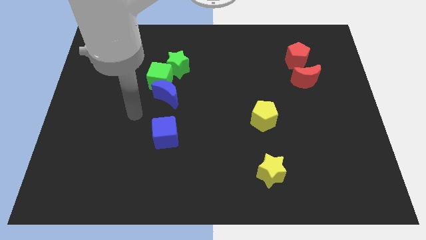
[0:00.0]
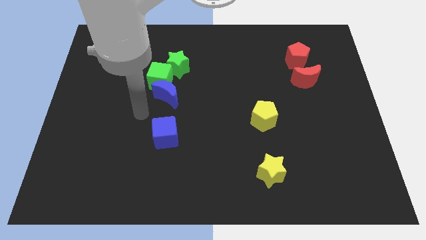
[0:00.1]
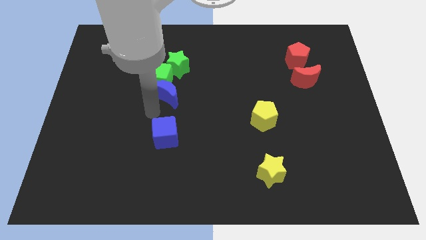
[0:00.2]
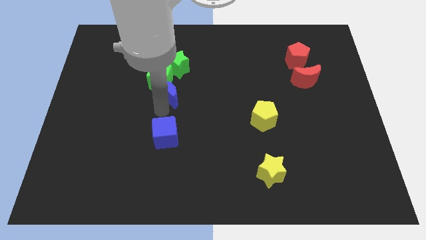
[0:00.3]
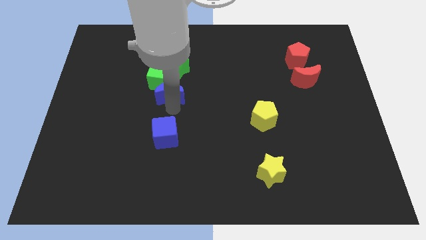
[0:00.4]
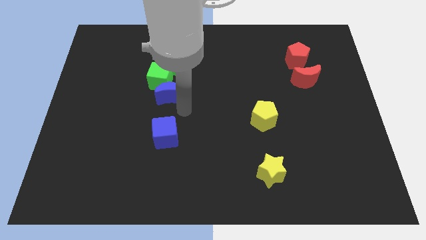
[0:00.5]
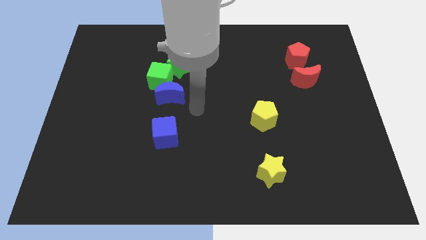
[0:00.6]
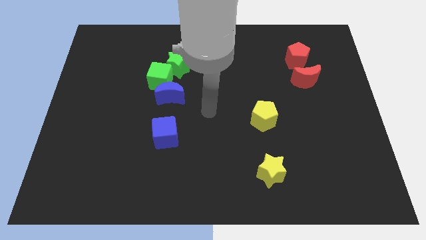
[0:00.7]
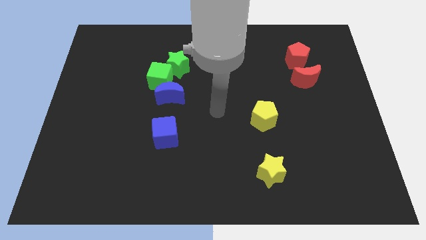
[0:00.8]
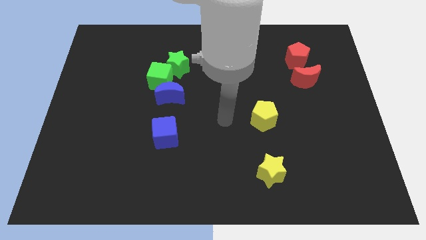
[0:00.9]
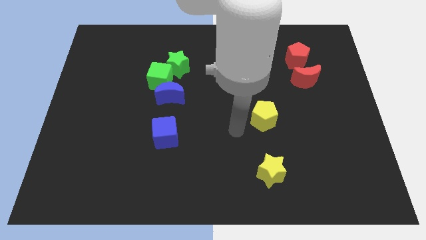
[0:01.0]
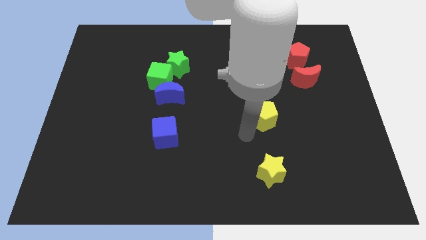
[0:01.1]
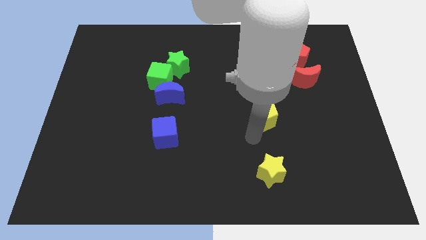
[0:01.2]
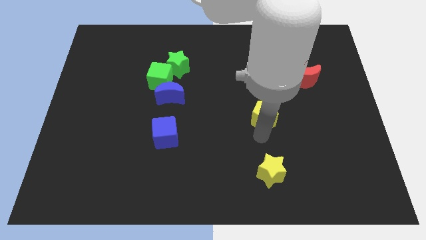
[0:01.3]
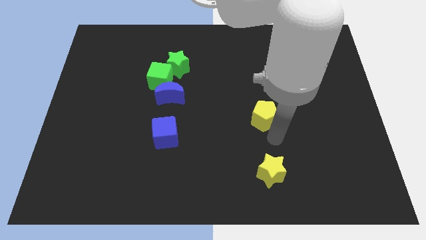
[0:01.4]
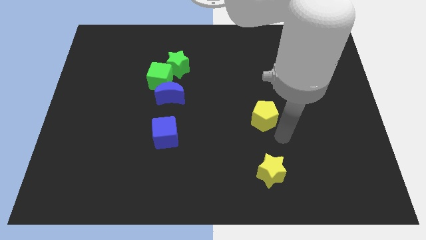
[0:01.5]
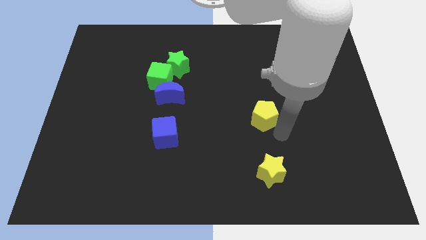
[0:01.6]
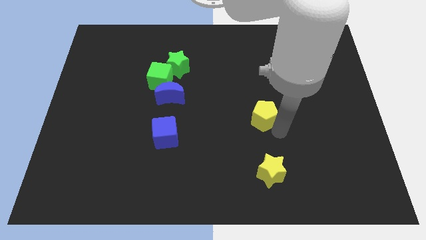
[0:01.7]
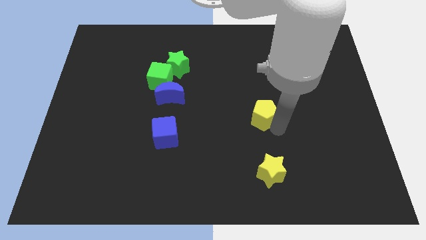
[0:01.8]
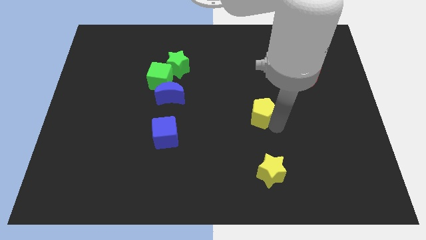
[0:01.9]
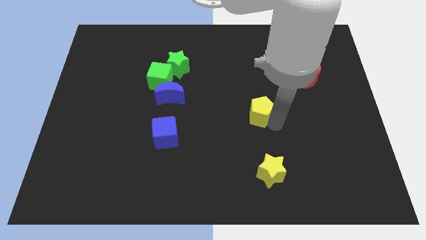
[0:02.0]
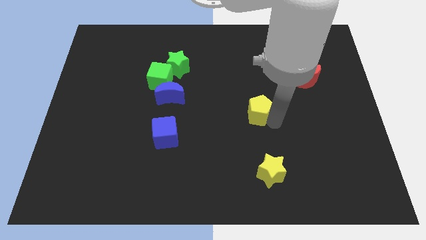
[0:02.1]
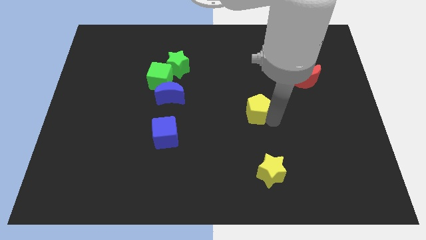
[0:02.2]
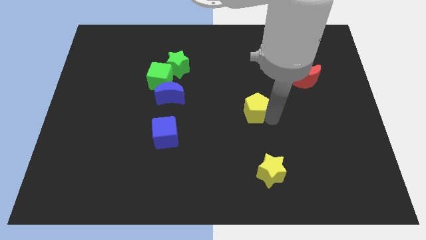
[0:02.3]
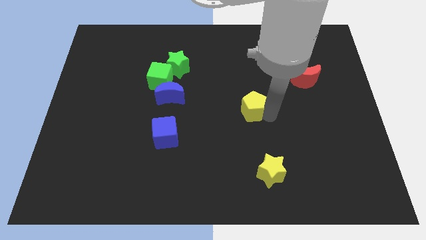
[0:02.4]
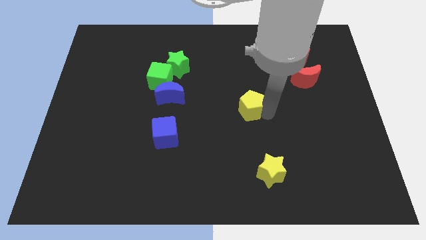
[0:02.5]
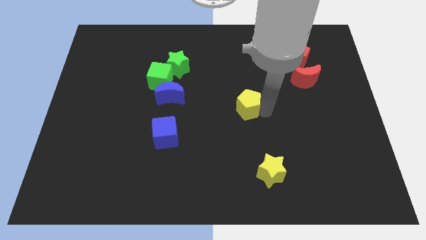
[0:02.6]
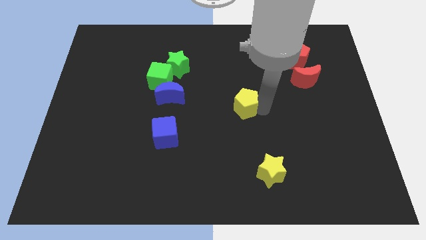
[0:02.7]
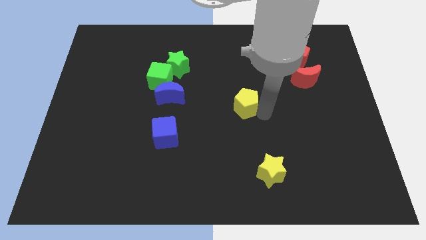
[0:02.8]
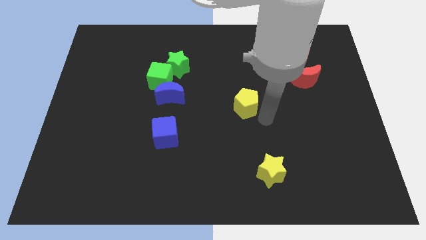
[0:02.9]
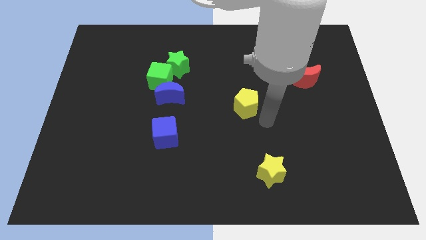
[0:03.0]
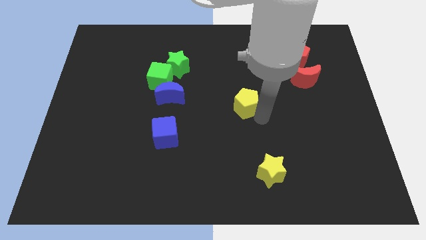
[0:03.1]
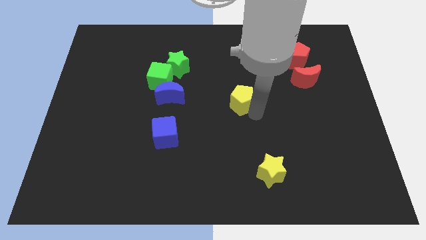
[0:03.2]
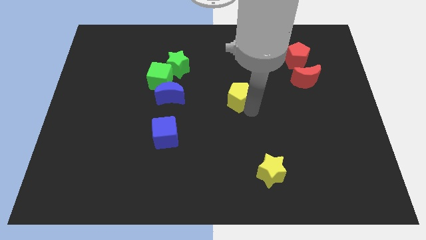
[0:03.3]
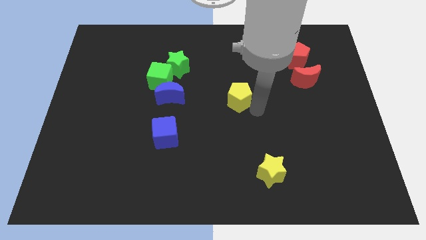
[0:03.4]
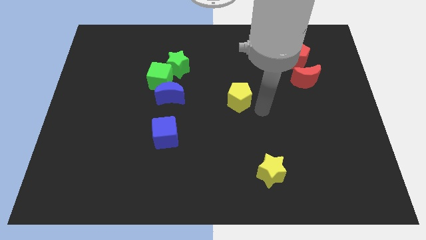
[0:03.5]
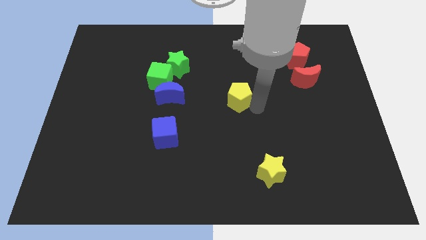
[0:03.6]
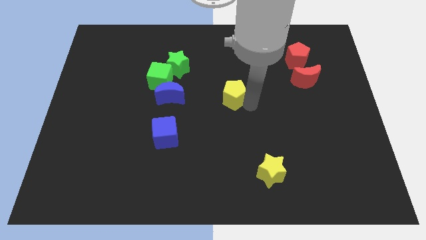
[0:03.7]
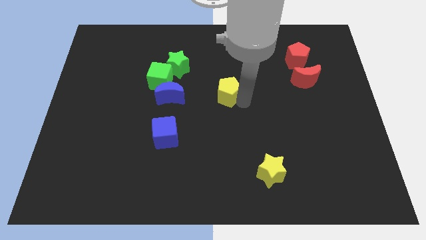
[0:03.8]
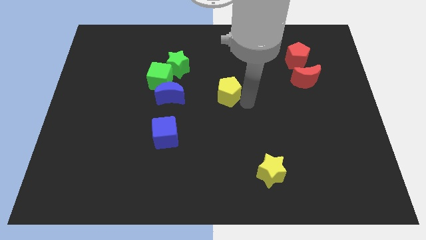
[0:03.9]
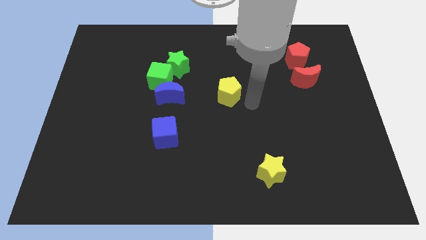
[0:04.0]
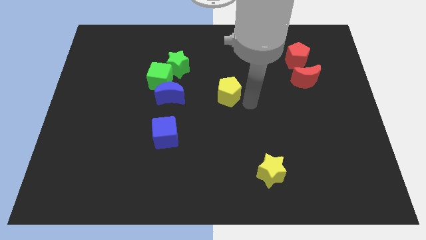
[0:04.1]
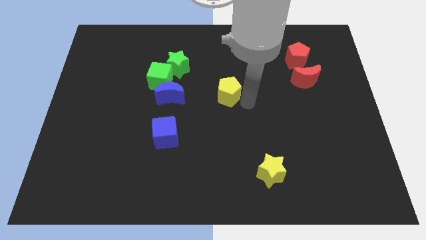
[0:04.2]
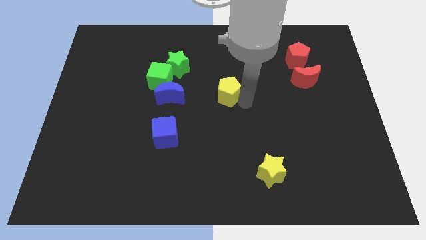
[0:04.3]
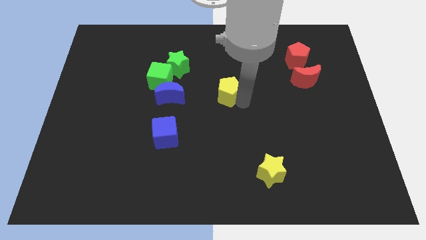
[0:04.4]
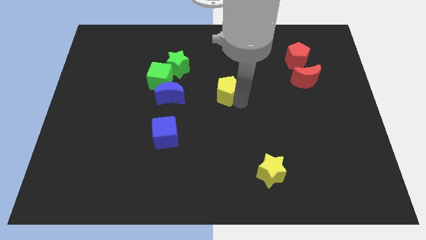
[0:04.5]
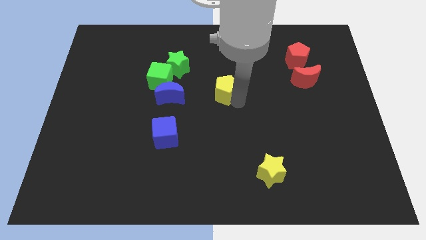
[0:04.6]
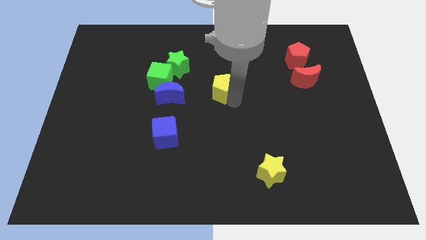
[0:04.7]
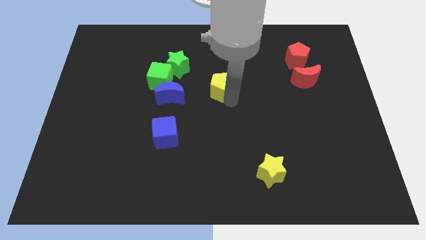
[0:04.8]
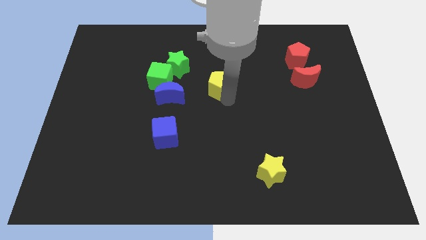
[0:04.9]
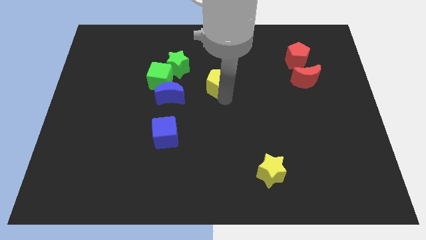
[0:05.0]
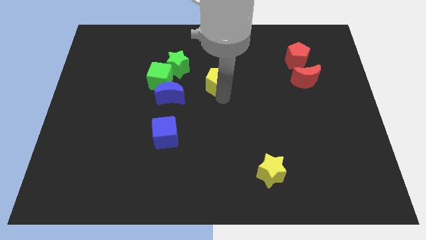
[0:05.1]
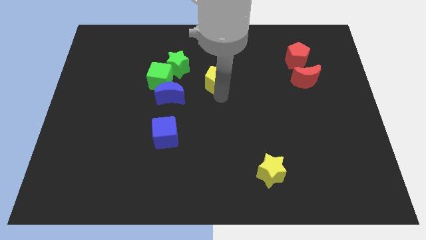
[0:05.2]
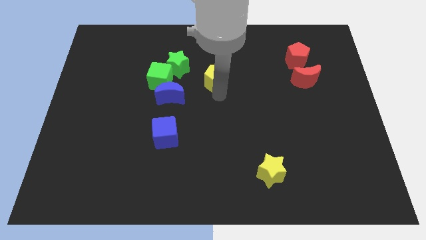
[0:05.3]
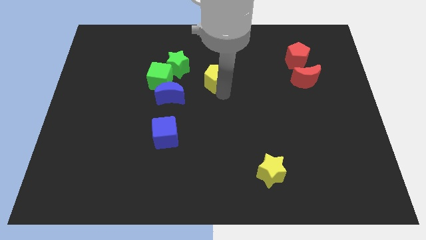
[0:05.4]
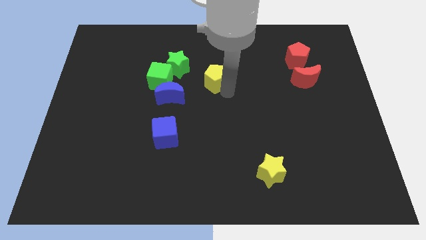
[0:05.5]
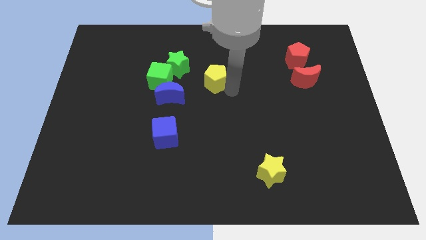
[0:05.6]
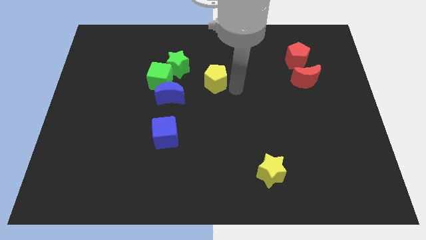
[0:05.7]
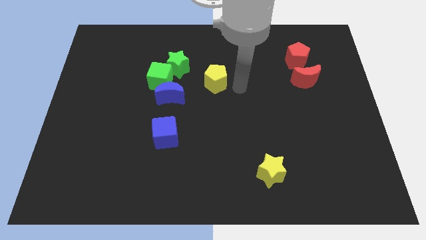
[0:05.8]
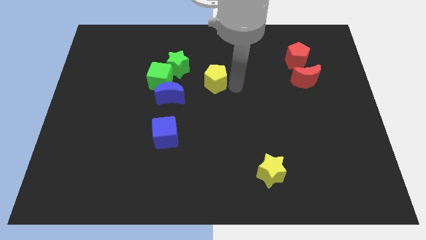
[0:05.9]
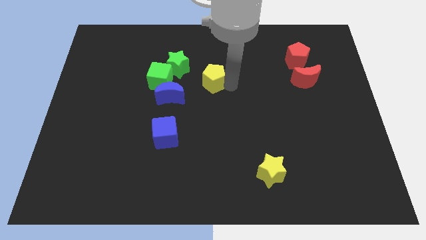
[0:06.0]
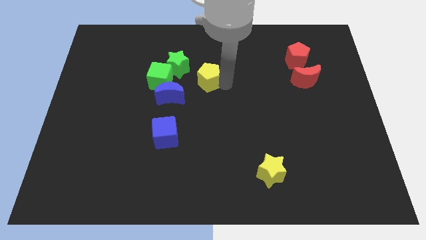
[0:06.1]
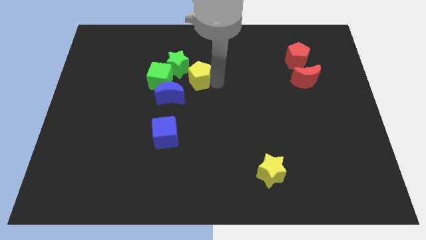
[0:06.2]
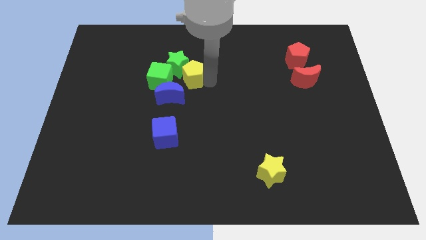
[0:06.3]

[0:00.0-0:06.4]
push the yellow pentagon next to the green star

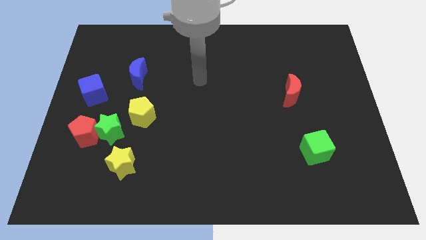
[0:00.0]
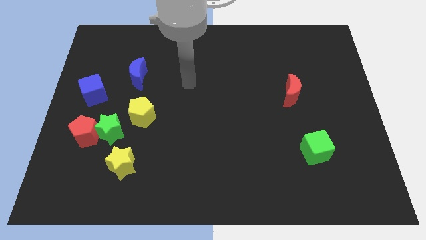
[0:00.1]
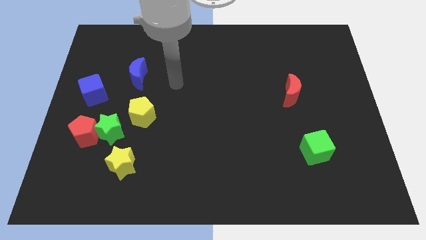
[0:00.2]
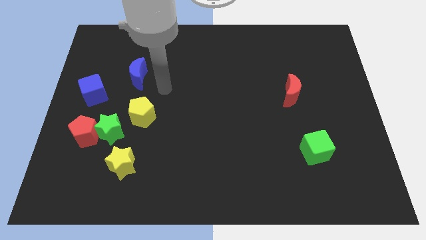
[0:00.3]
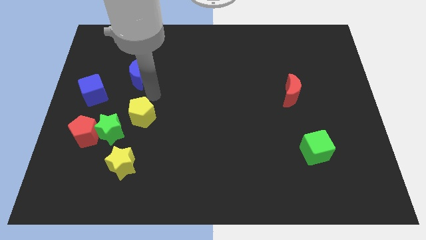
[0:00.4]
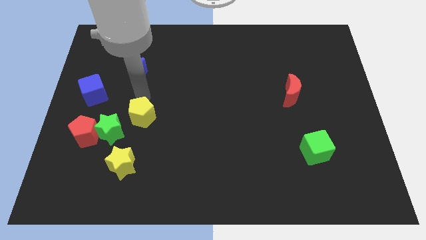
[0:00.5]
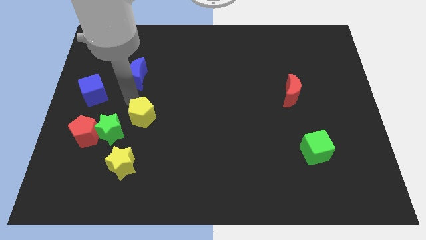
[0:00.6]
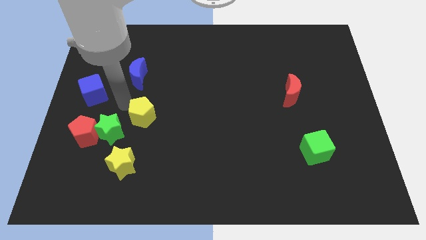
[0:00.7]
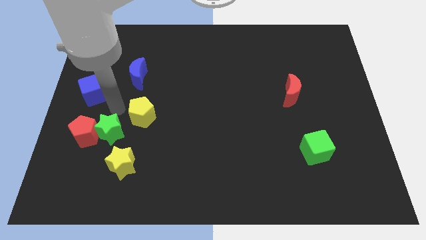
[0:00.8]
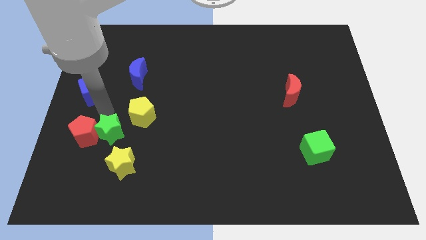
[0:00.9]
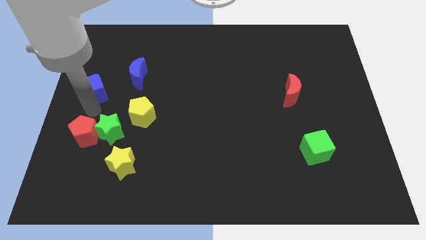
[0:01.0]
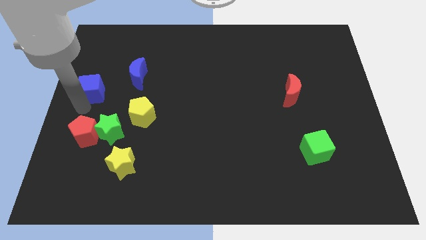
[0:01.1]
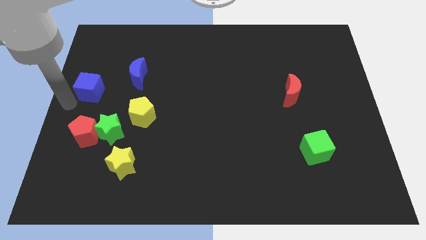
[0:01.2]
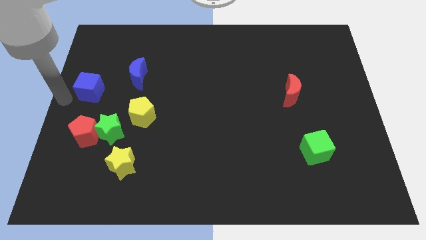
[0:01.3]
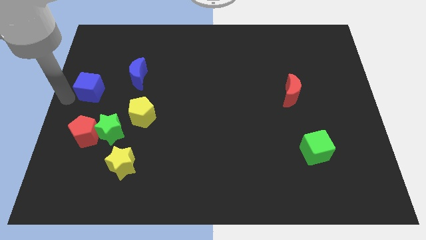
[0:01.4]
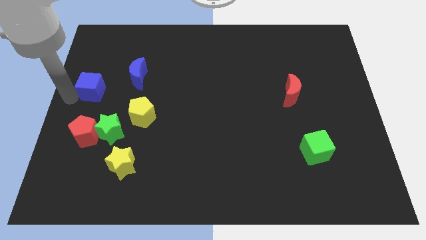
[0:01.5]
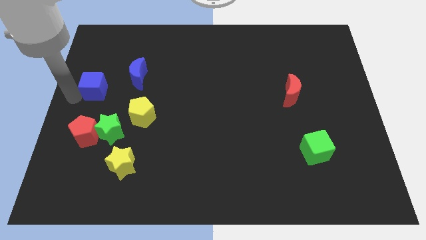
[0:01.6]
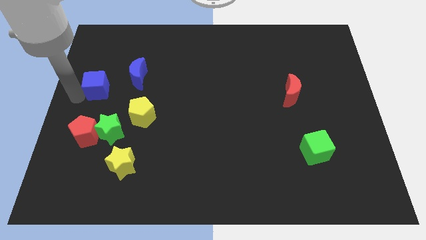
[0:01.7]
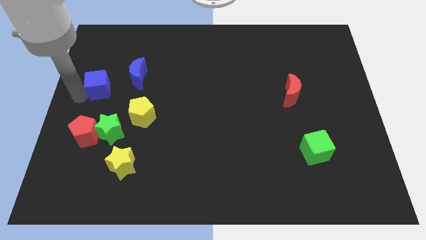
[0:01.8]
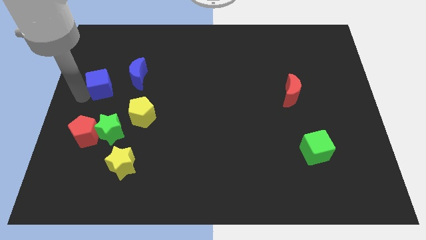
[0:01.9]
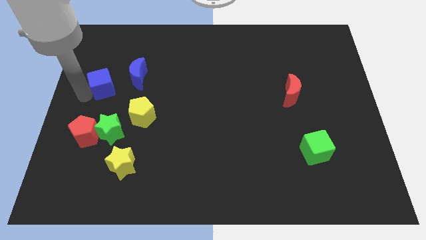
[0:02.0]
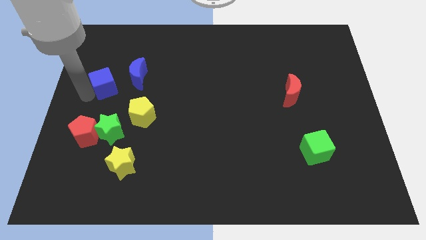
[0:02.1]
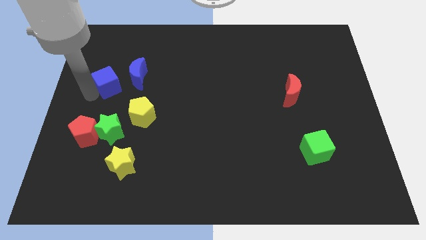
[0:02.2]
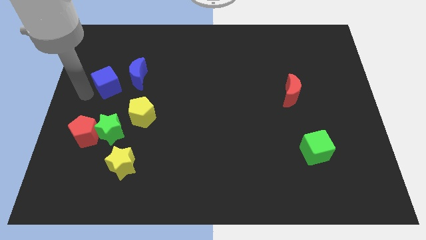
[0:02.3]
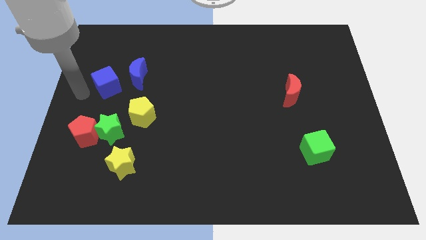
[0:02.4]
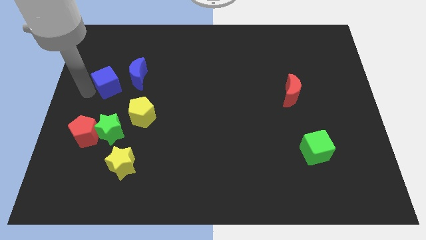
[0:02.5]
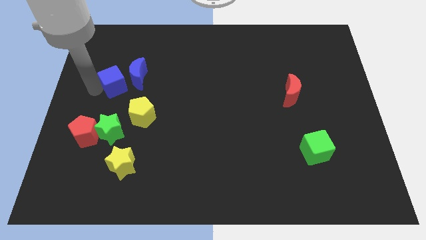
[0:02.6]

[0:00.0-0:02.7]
move the blue cube close to the blue moon
